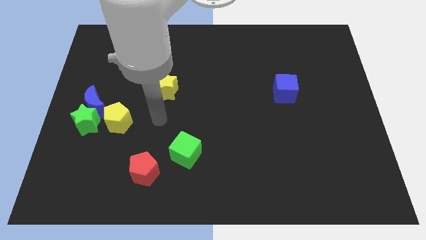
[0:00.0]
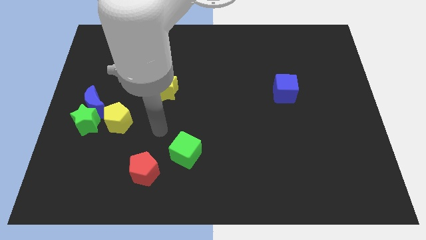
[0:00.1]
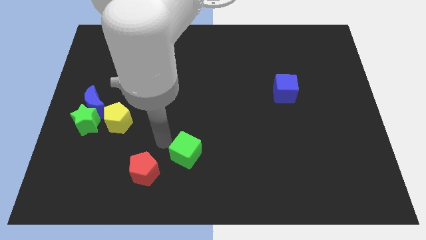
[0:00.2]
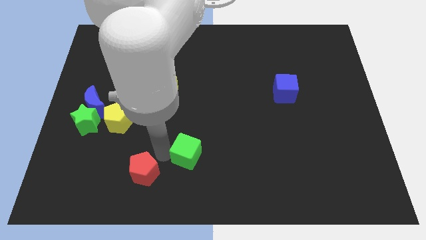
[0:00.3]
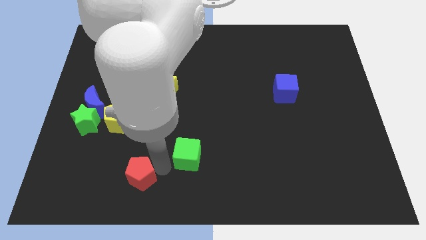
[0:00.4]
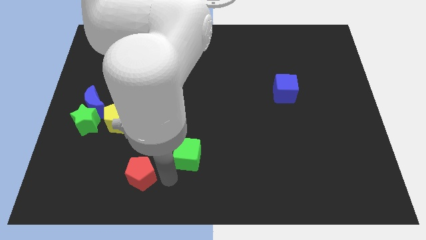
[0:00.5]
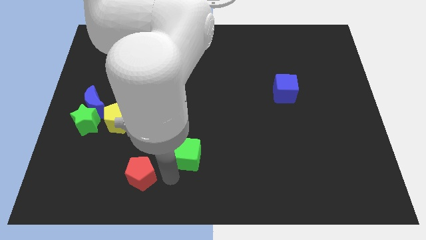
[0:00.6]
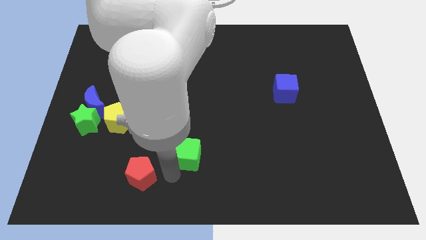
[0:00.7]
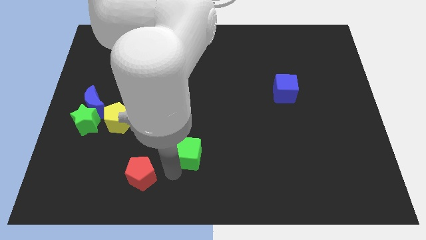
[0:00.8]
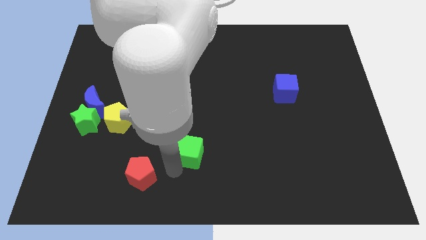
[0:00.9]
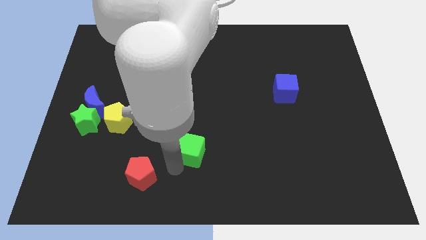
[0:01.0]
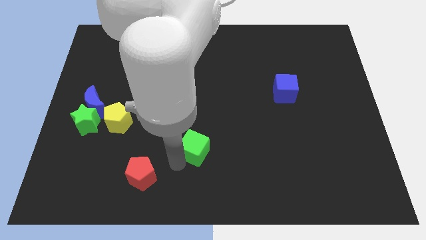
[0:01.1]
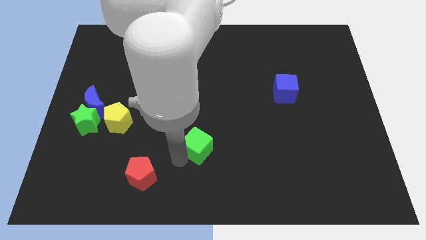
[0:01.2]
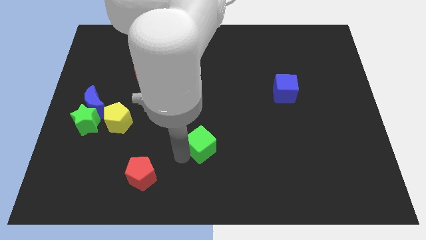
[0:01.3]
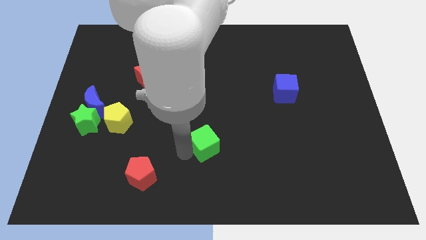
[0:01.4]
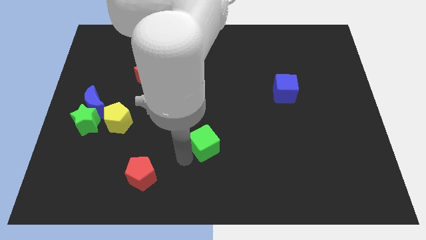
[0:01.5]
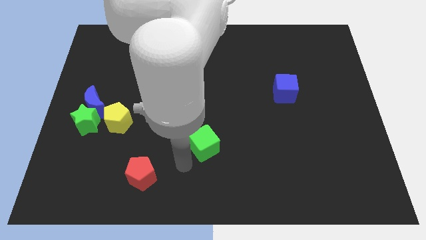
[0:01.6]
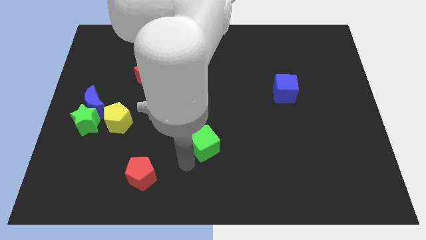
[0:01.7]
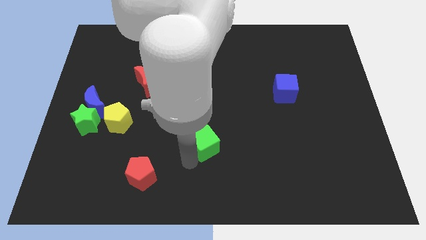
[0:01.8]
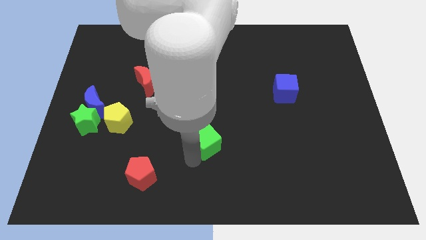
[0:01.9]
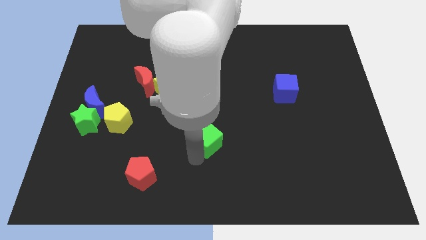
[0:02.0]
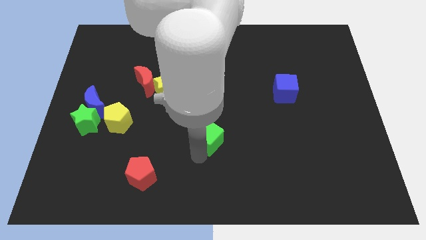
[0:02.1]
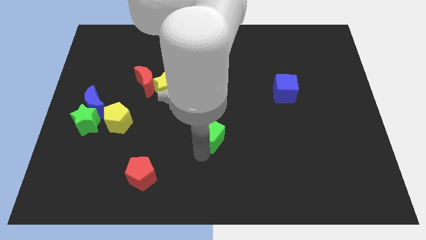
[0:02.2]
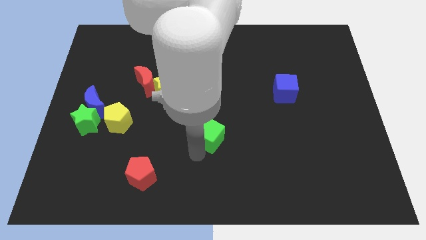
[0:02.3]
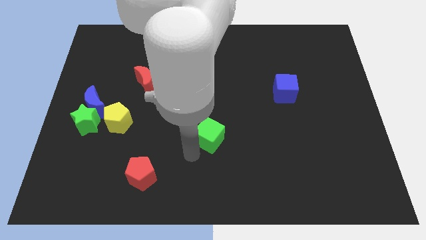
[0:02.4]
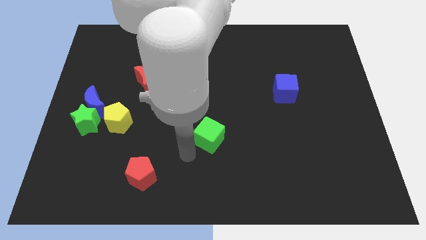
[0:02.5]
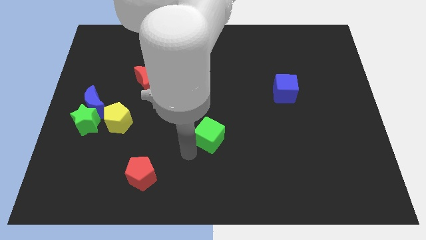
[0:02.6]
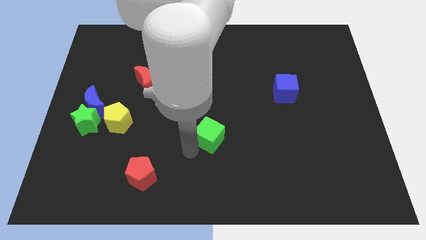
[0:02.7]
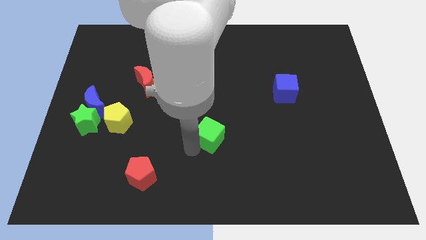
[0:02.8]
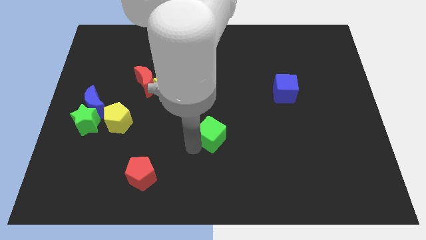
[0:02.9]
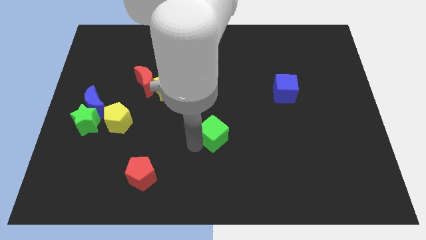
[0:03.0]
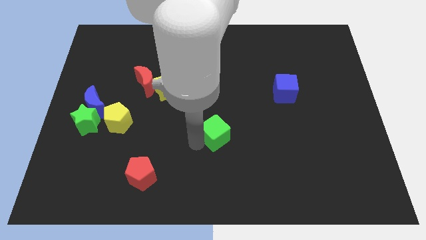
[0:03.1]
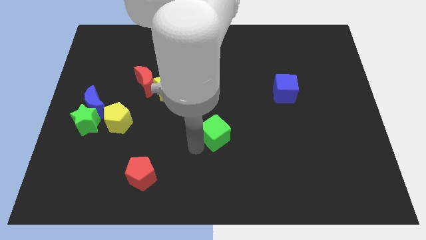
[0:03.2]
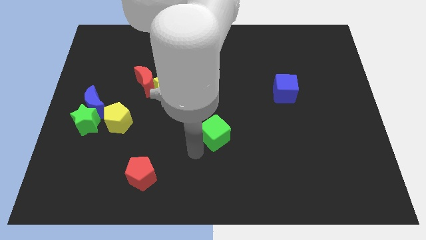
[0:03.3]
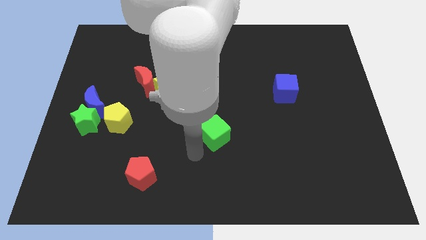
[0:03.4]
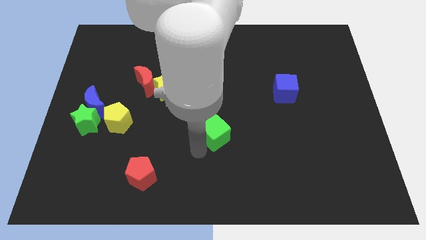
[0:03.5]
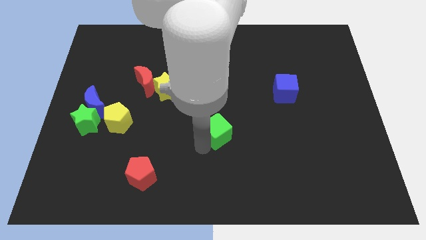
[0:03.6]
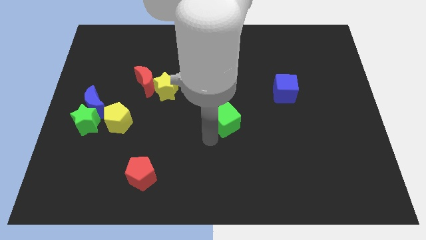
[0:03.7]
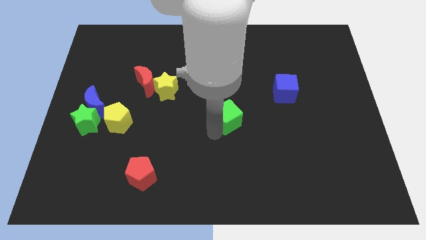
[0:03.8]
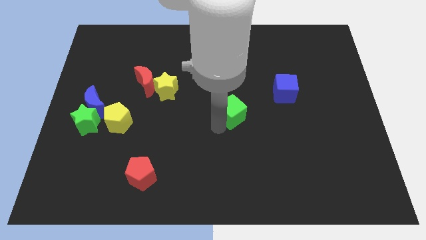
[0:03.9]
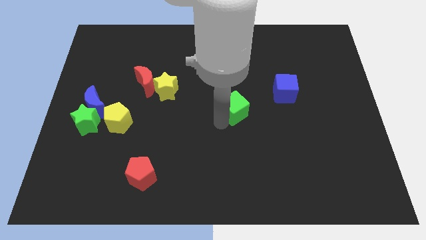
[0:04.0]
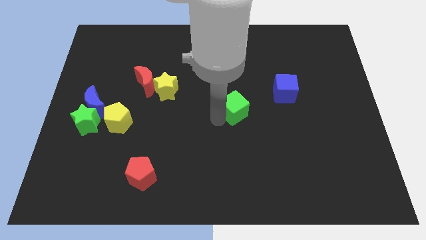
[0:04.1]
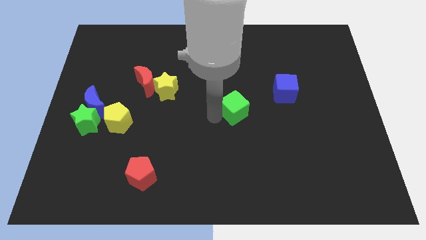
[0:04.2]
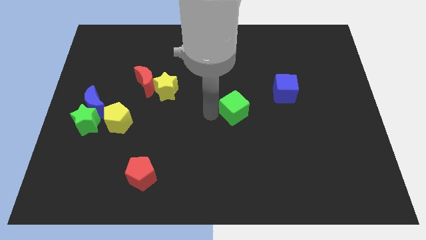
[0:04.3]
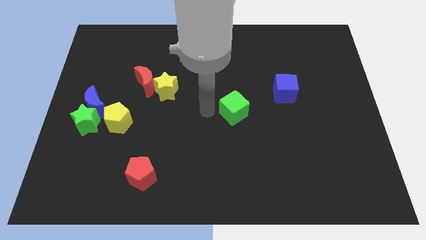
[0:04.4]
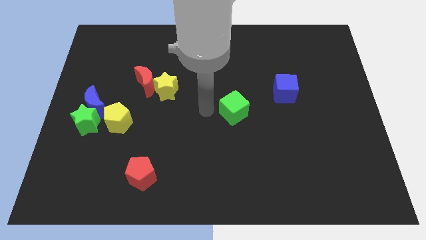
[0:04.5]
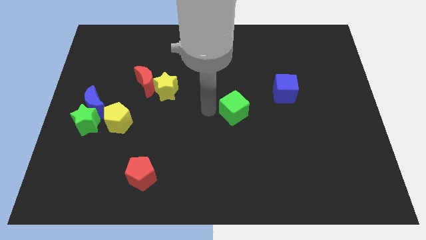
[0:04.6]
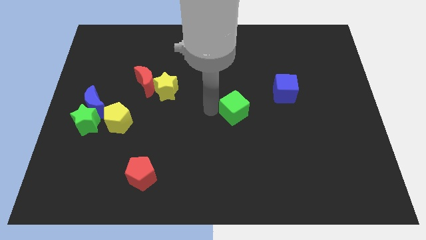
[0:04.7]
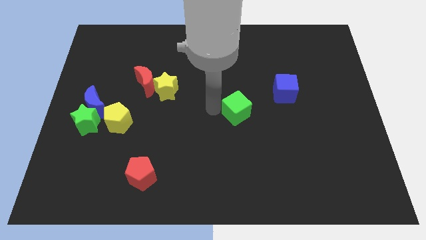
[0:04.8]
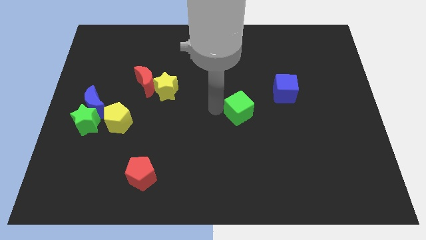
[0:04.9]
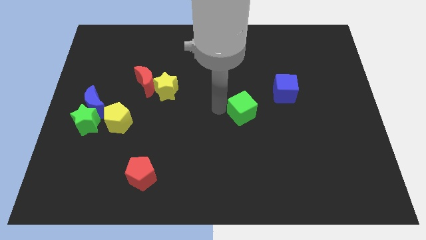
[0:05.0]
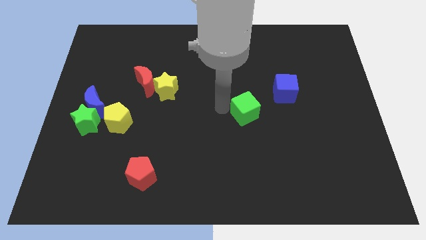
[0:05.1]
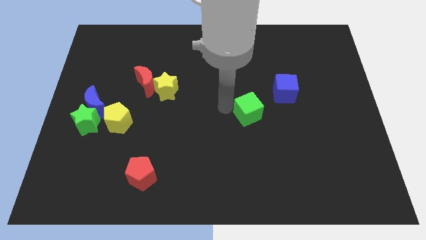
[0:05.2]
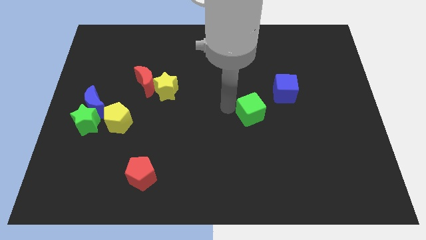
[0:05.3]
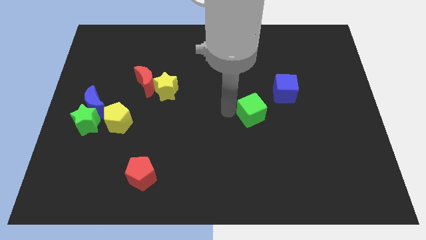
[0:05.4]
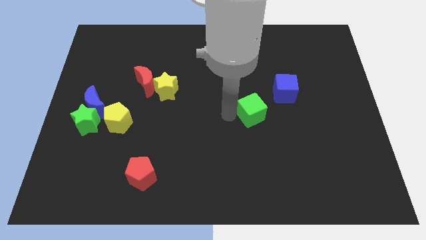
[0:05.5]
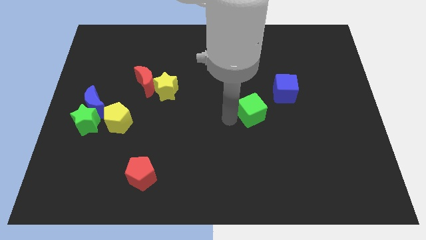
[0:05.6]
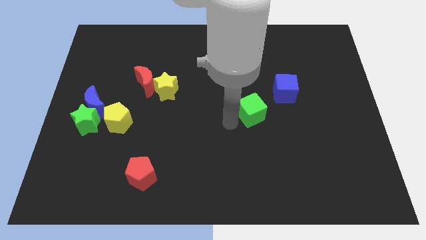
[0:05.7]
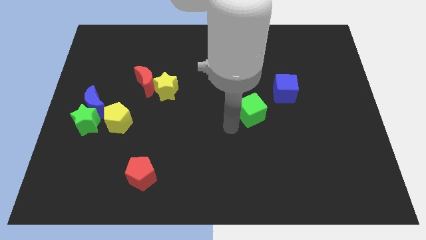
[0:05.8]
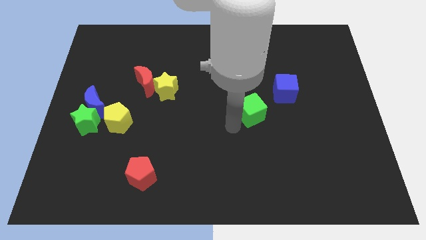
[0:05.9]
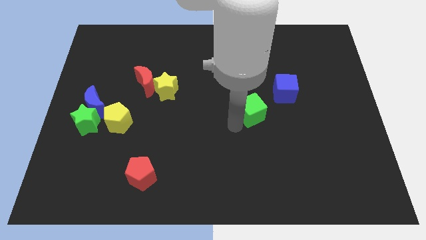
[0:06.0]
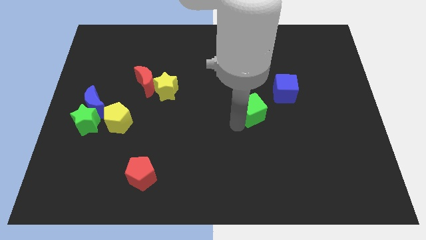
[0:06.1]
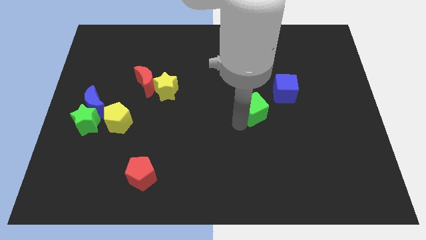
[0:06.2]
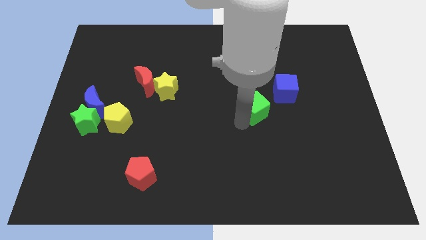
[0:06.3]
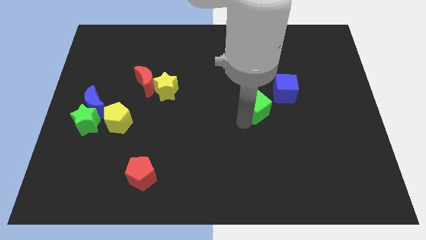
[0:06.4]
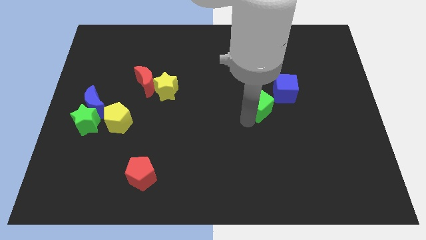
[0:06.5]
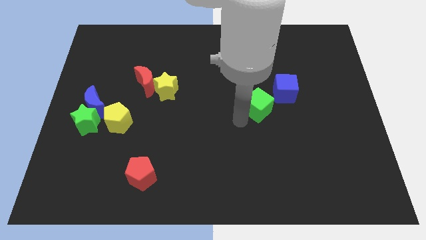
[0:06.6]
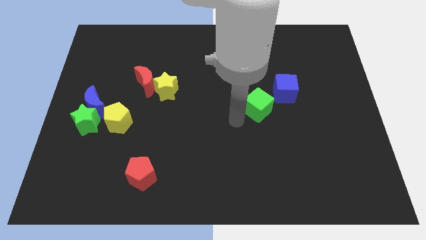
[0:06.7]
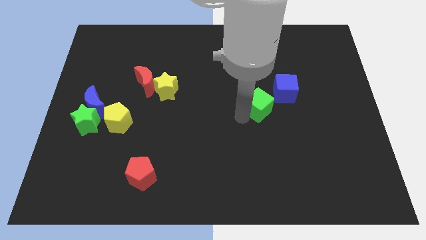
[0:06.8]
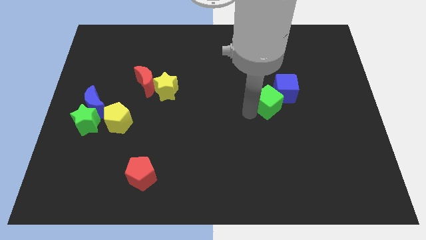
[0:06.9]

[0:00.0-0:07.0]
put the green cube close to the blue cube
